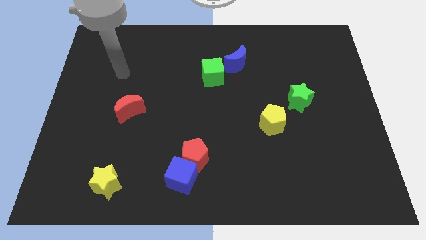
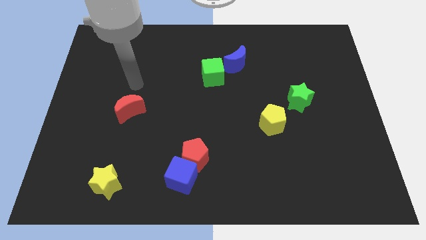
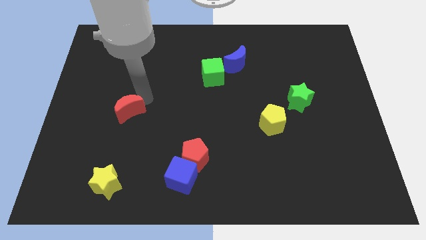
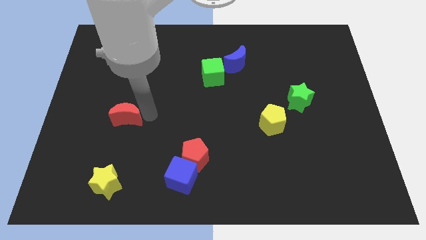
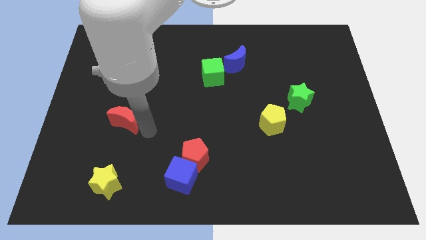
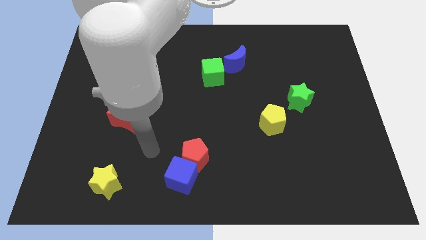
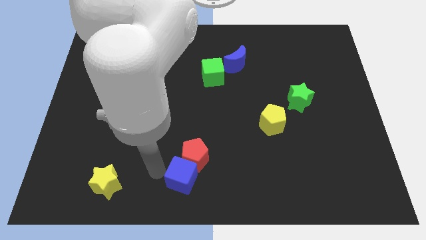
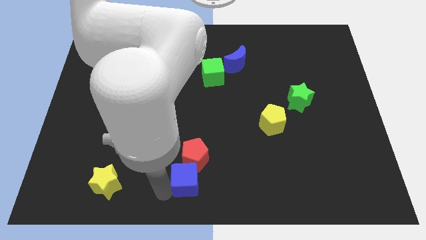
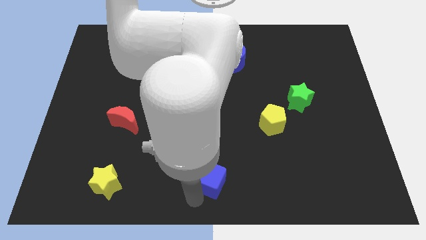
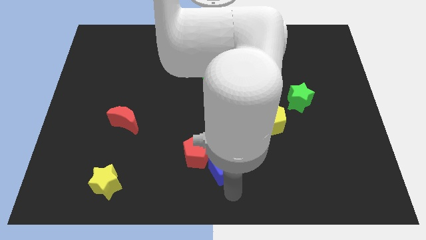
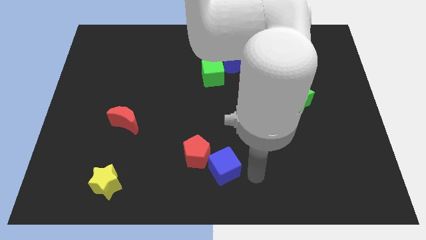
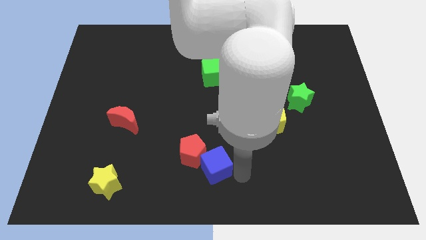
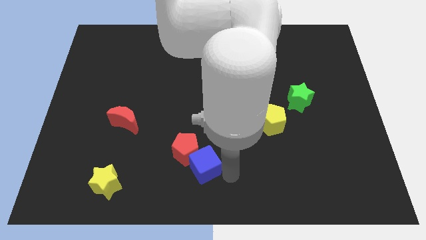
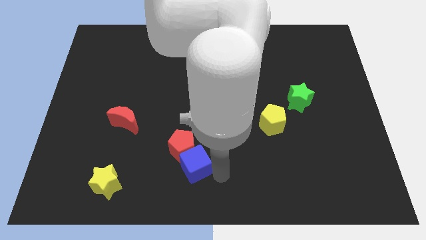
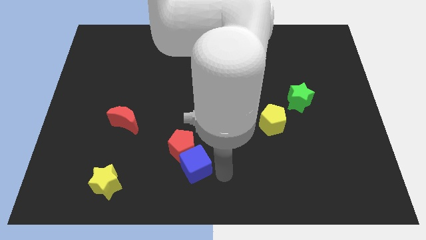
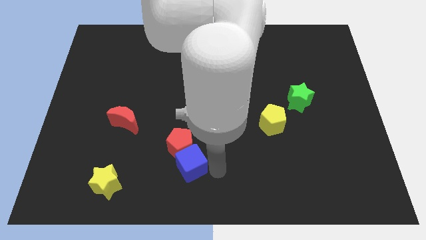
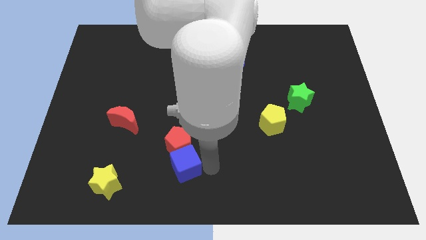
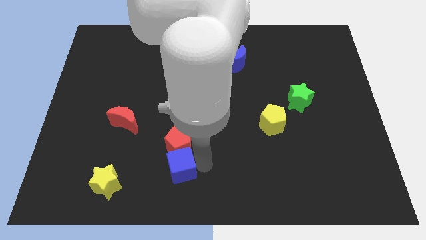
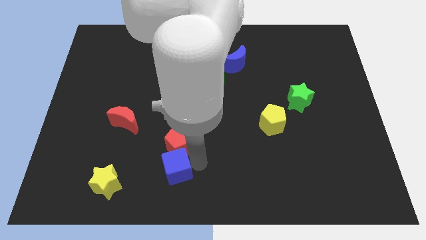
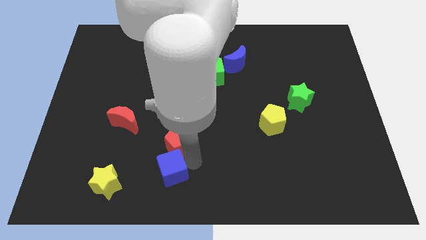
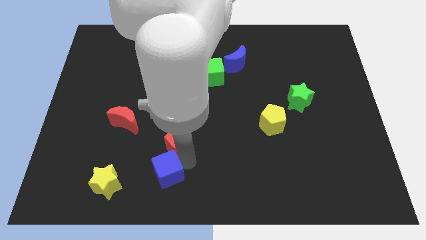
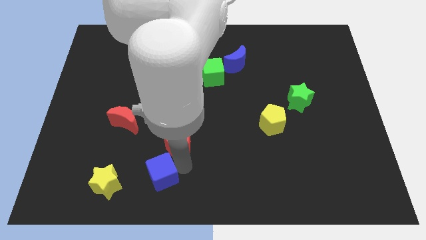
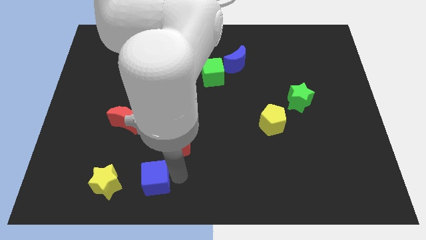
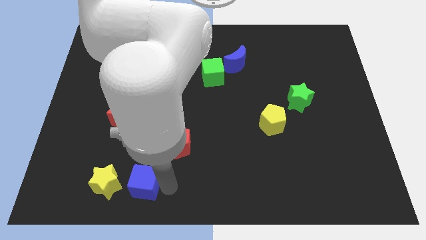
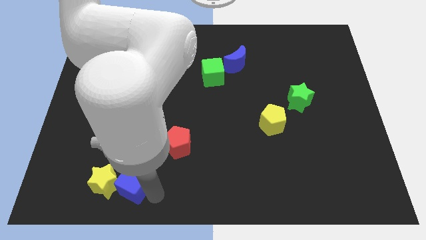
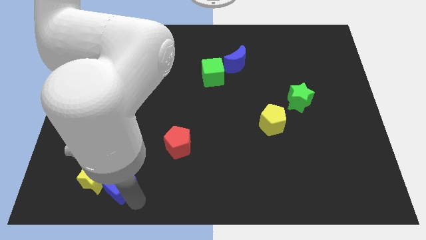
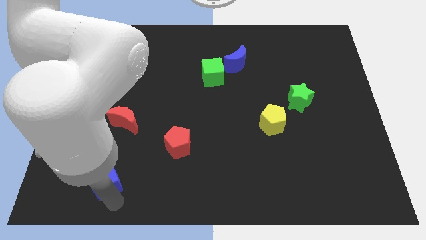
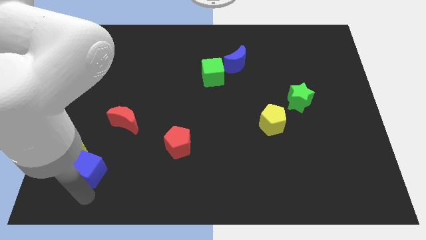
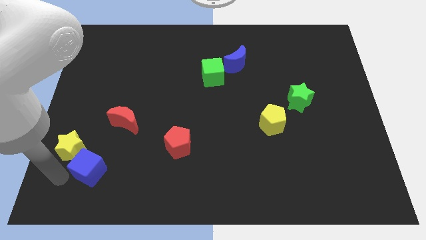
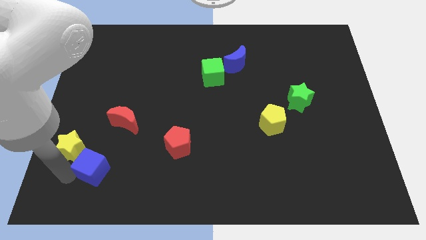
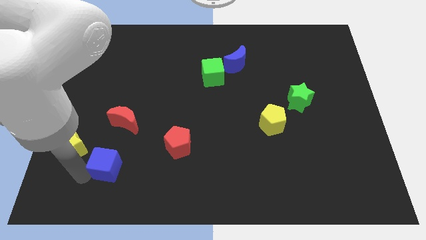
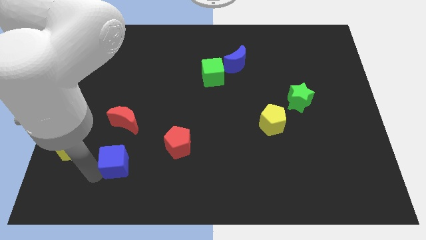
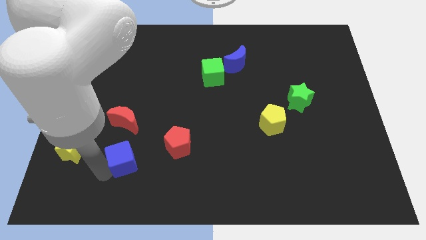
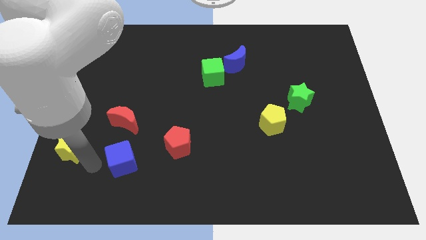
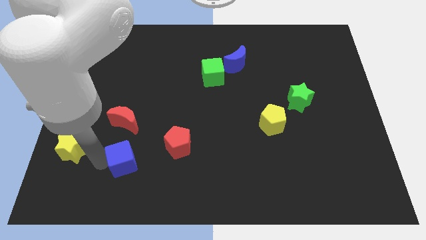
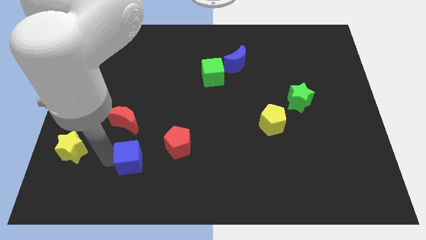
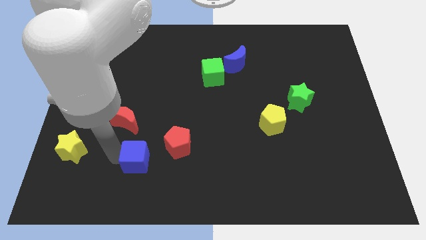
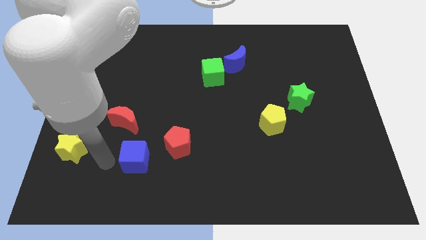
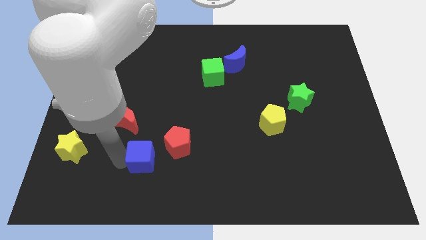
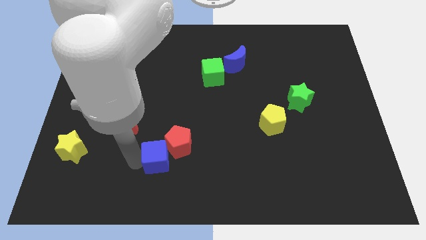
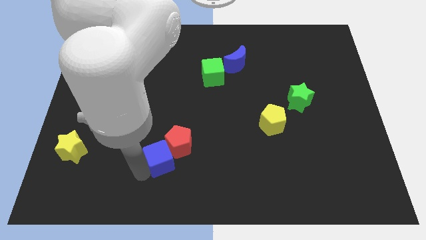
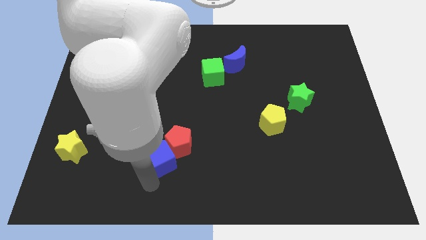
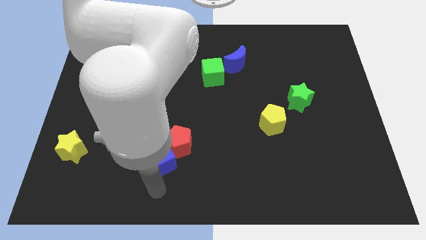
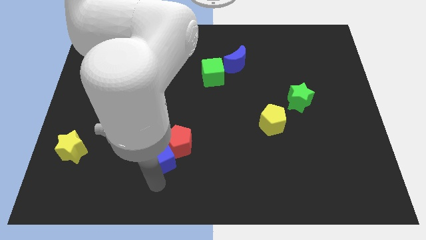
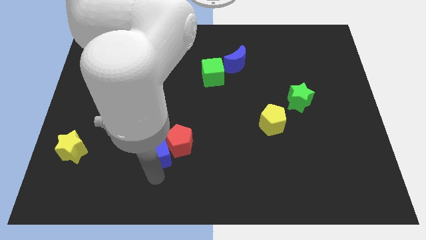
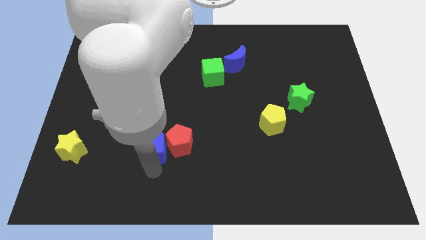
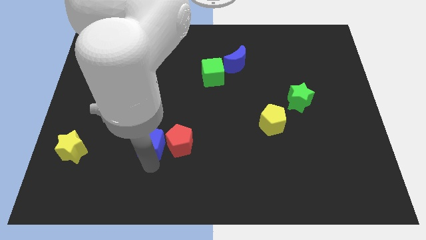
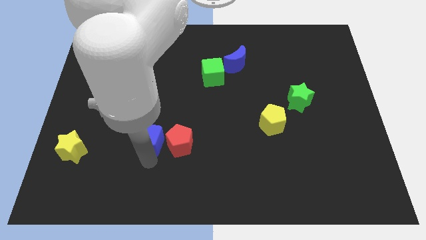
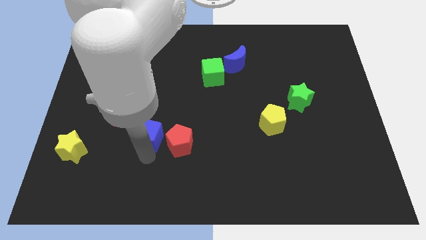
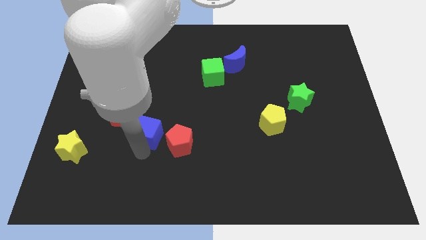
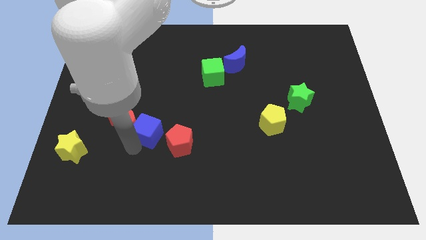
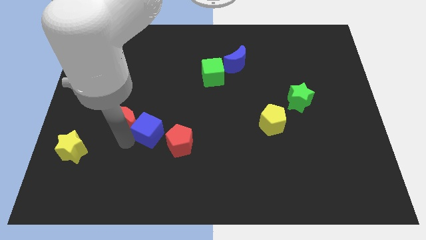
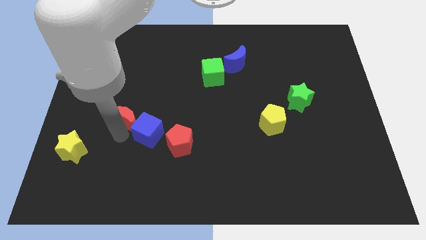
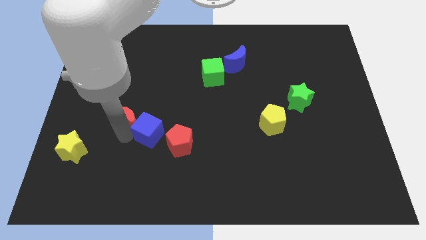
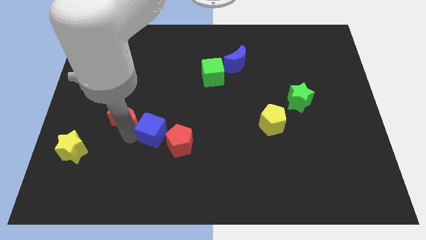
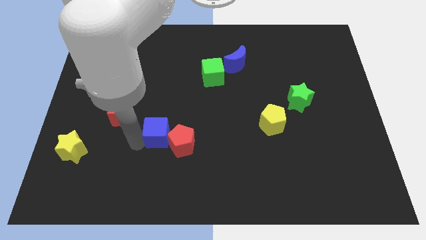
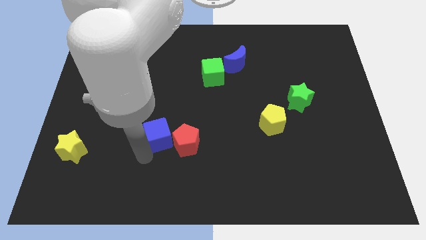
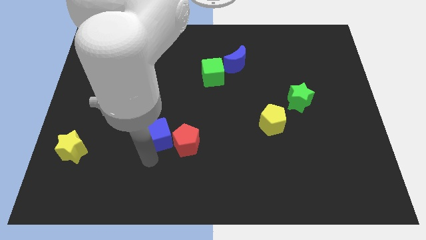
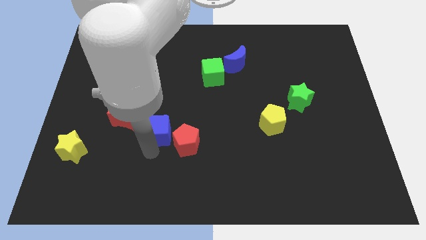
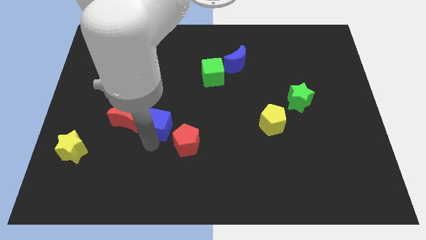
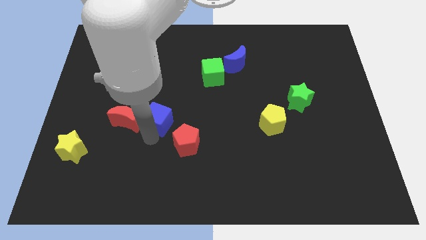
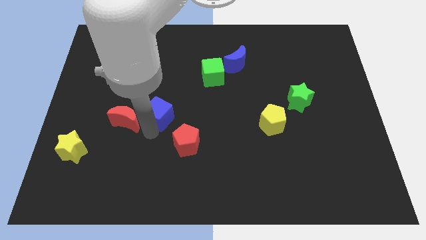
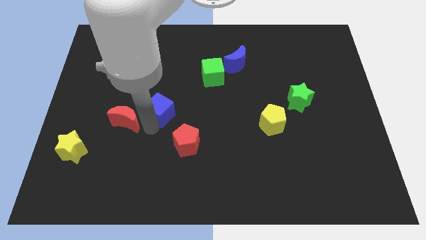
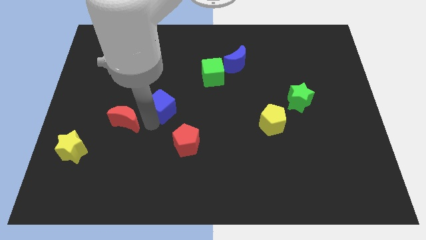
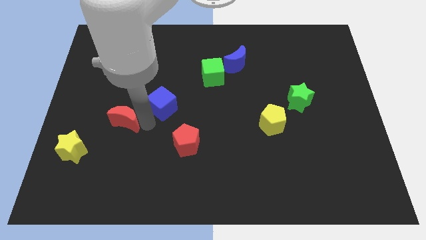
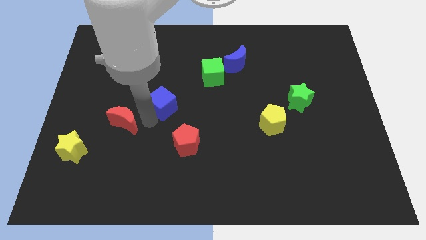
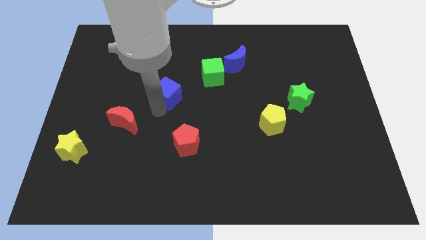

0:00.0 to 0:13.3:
slide the blue cube upwards

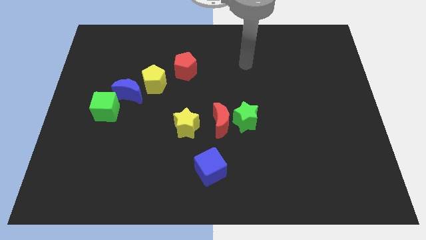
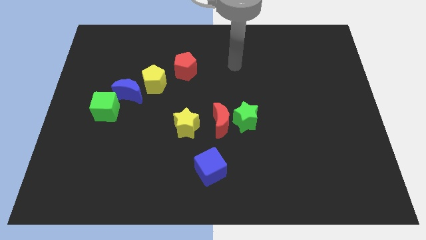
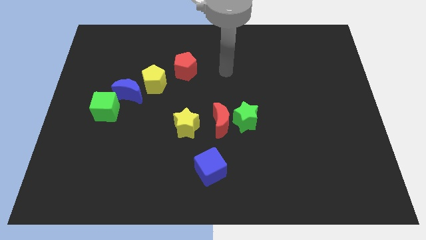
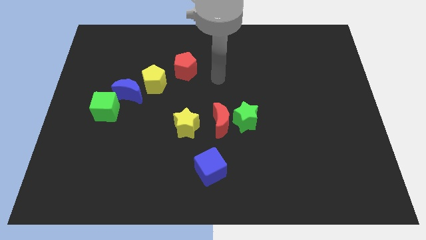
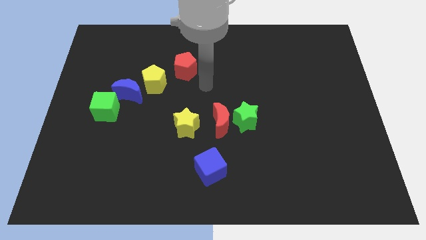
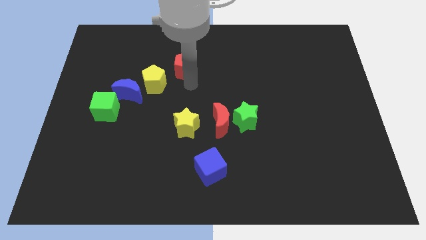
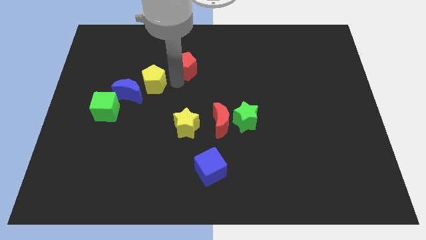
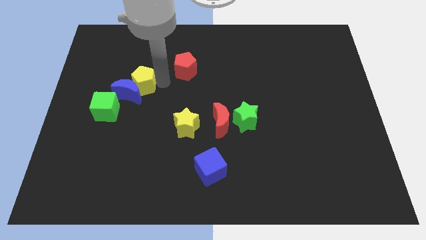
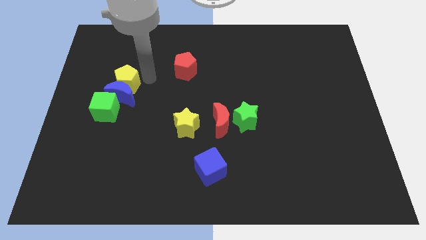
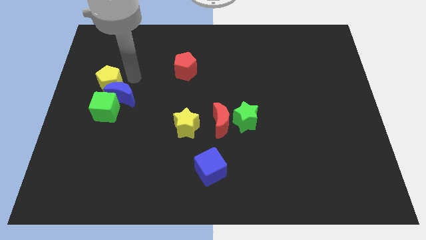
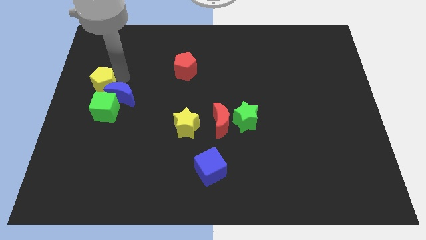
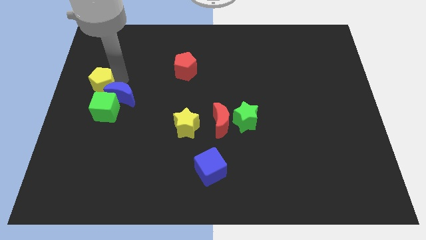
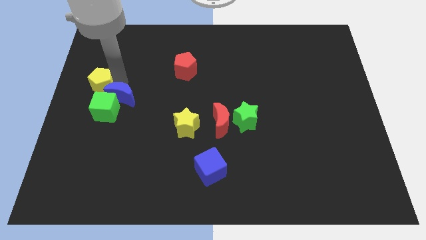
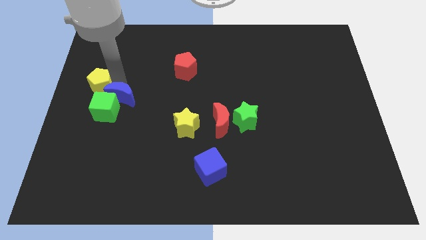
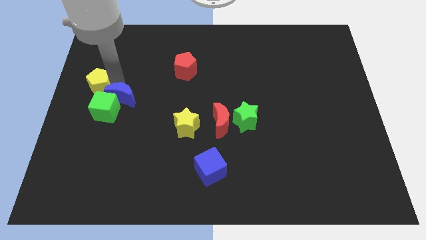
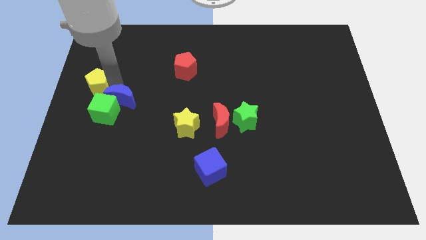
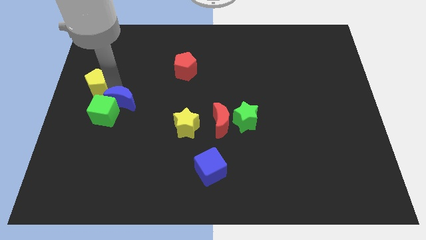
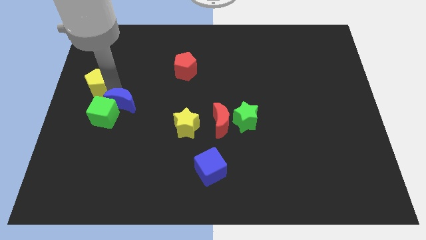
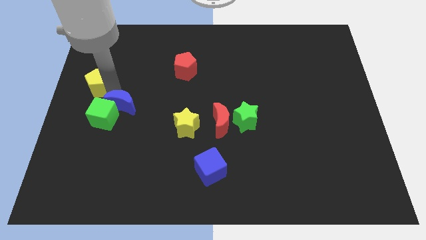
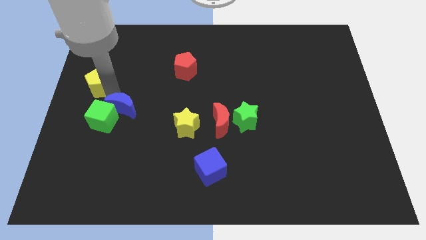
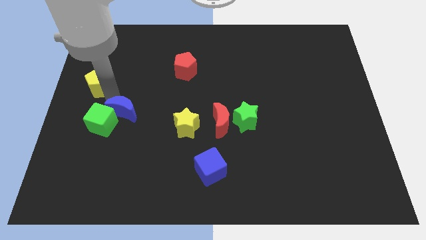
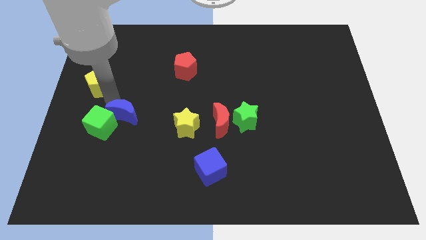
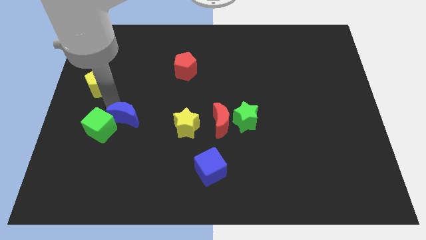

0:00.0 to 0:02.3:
slide the blue moon down slightly
